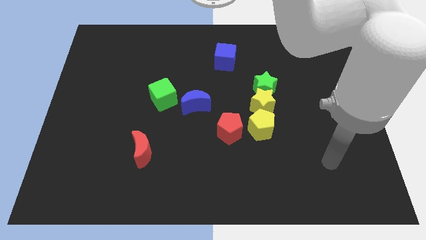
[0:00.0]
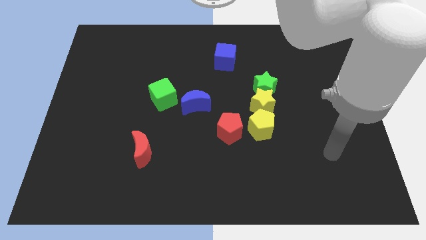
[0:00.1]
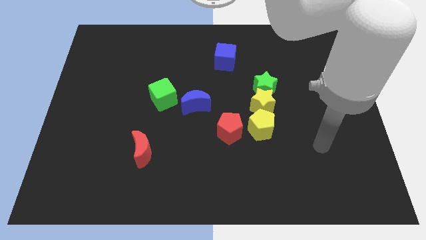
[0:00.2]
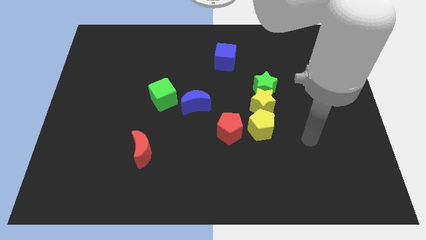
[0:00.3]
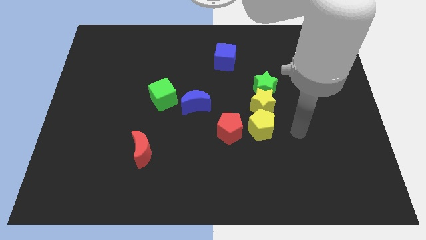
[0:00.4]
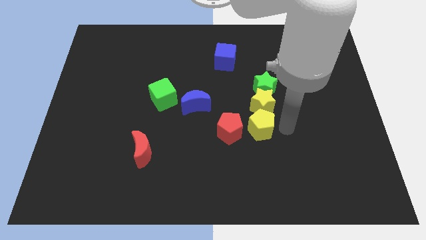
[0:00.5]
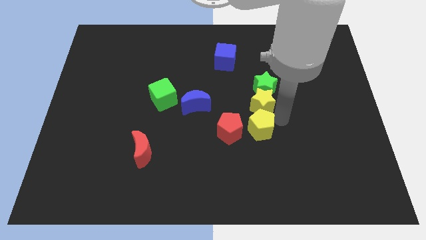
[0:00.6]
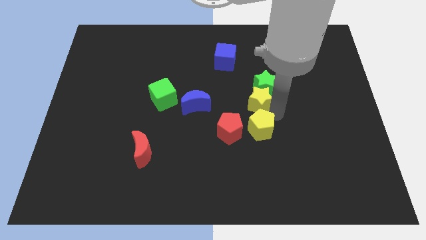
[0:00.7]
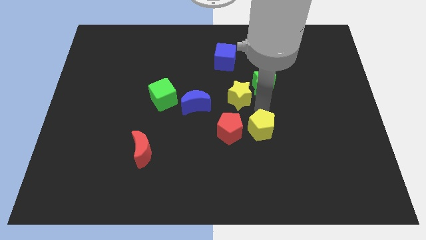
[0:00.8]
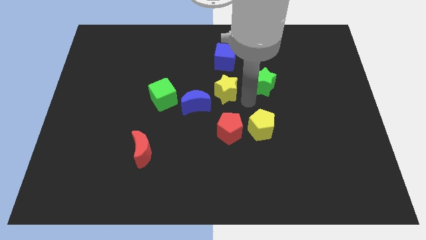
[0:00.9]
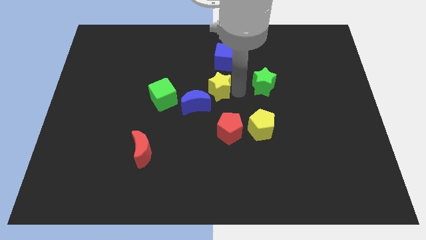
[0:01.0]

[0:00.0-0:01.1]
pull the green star apart from the yellow star

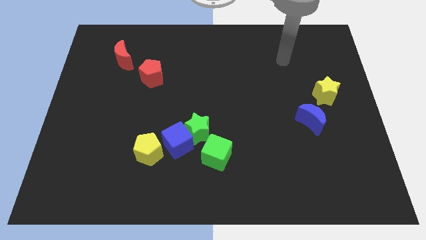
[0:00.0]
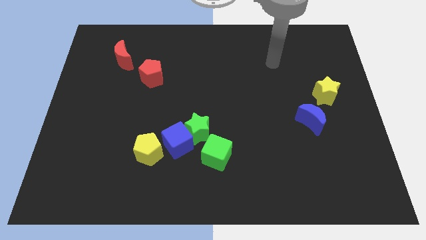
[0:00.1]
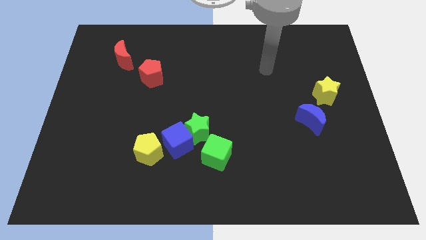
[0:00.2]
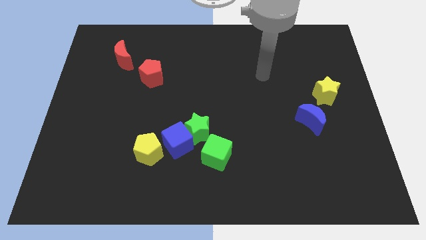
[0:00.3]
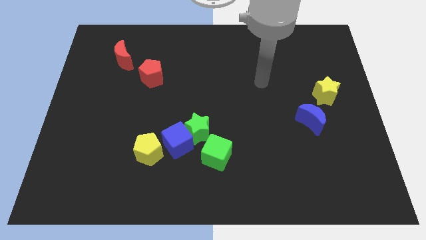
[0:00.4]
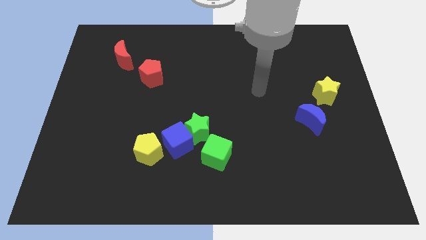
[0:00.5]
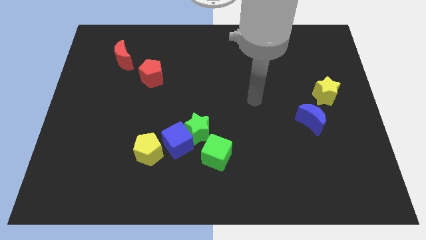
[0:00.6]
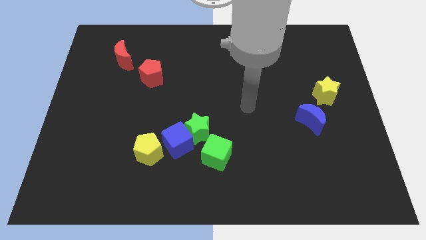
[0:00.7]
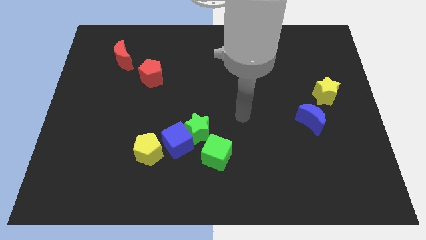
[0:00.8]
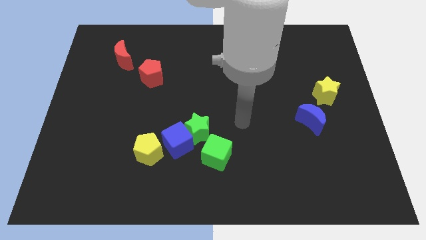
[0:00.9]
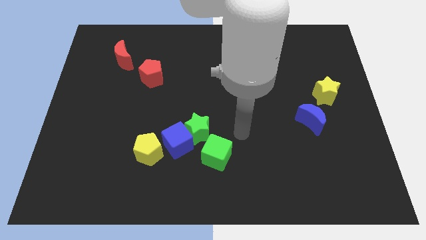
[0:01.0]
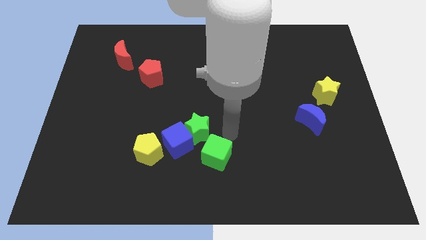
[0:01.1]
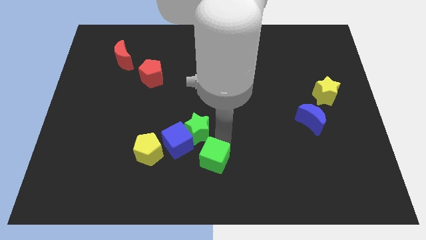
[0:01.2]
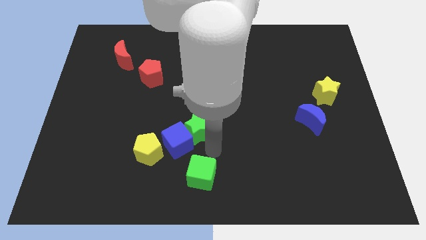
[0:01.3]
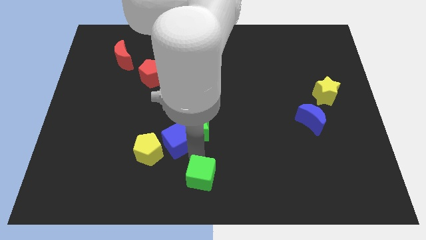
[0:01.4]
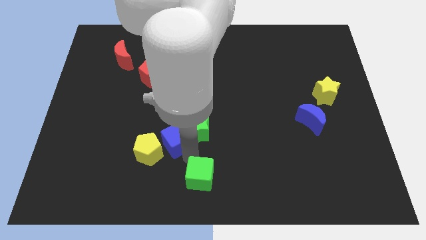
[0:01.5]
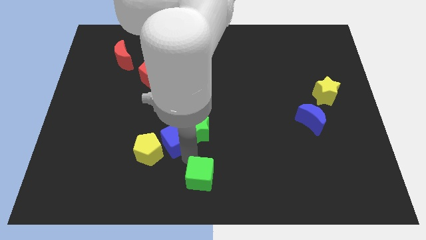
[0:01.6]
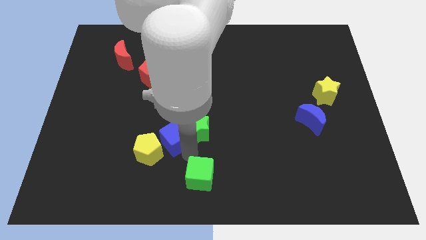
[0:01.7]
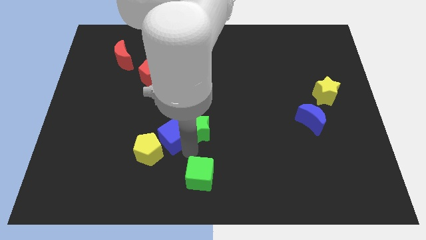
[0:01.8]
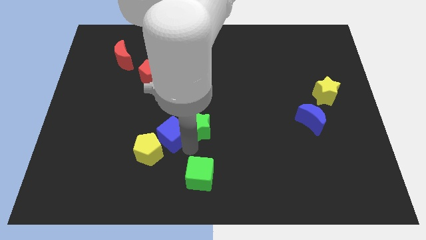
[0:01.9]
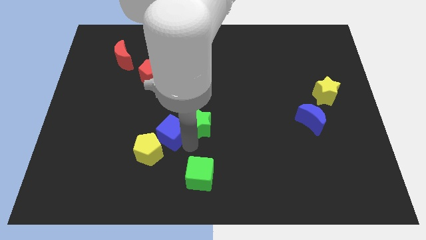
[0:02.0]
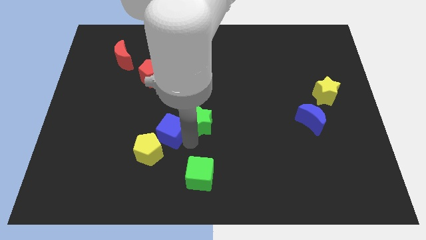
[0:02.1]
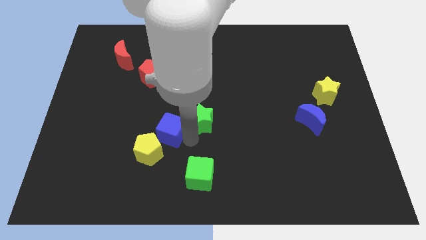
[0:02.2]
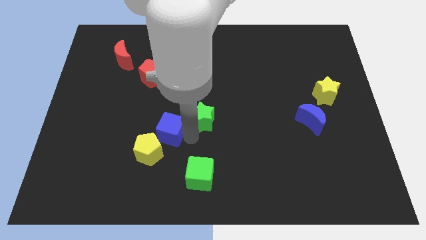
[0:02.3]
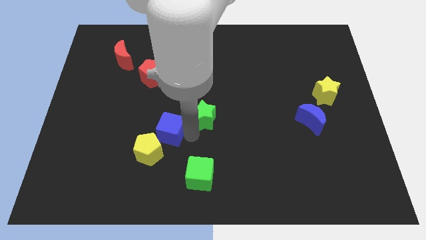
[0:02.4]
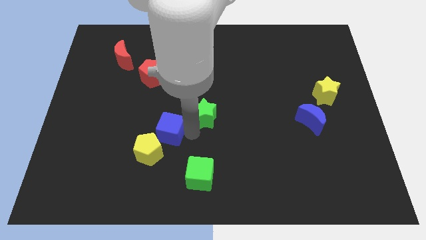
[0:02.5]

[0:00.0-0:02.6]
separate the green star from the blue cube and green cube

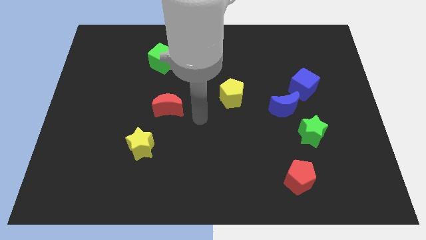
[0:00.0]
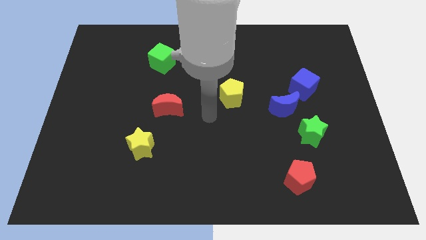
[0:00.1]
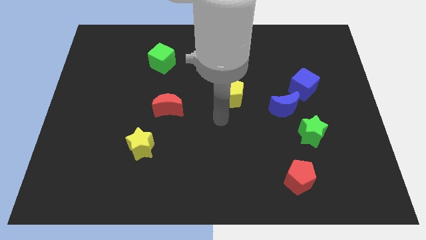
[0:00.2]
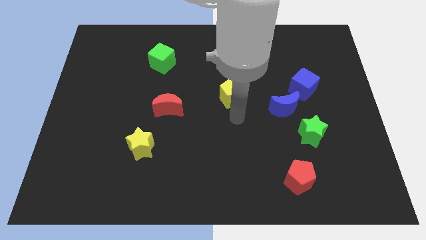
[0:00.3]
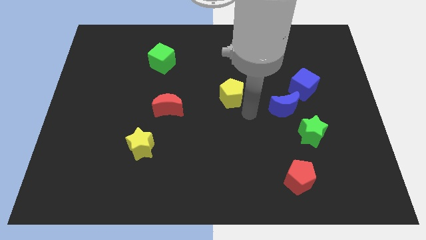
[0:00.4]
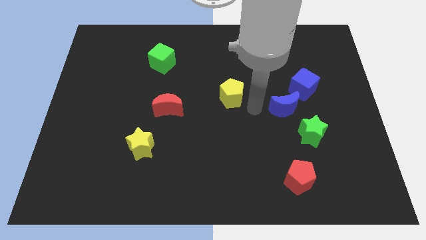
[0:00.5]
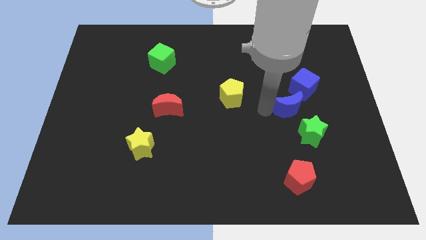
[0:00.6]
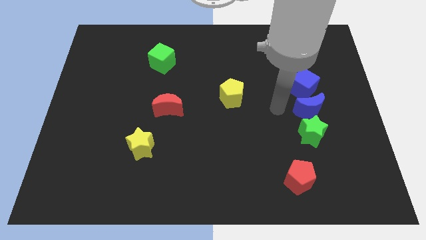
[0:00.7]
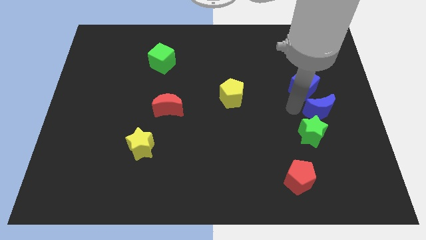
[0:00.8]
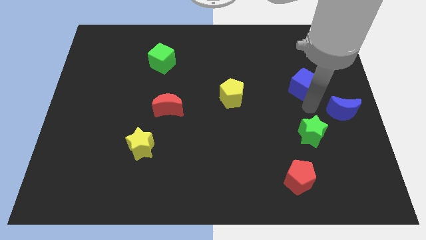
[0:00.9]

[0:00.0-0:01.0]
separate the blue cube from the blue moon

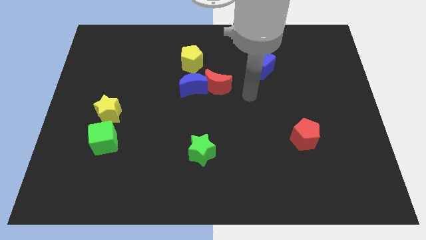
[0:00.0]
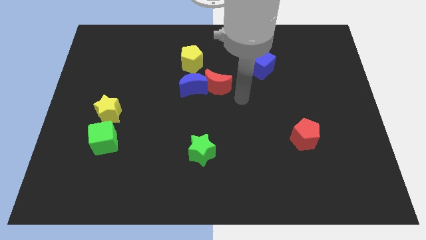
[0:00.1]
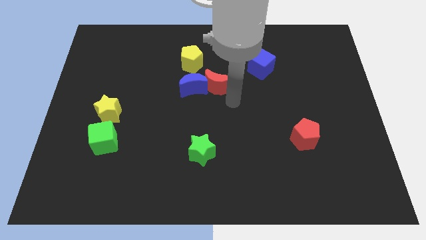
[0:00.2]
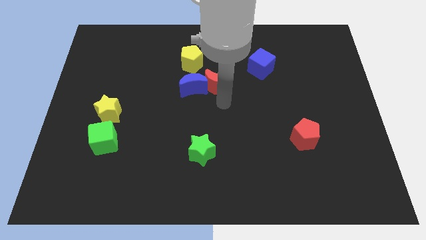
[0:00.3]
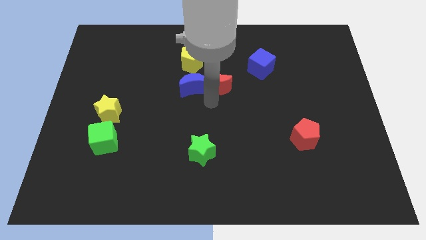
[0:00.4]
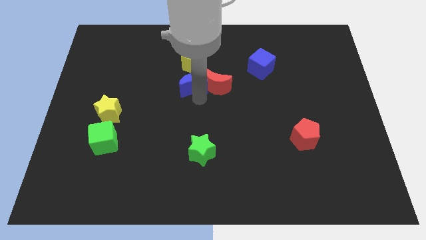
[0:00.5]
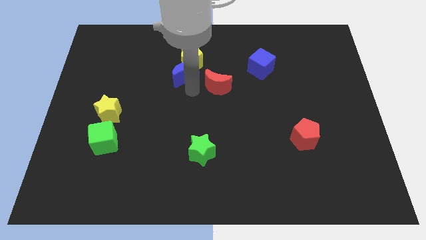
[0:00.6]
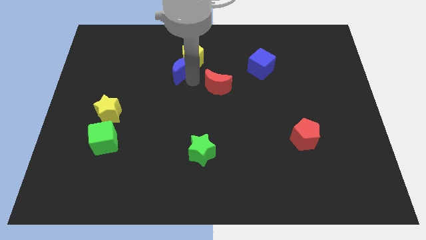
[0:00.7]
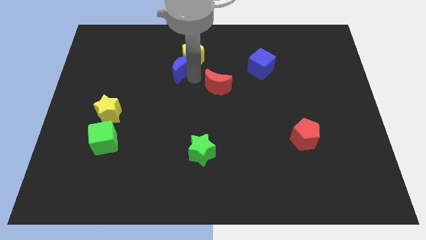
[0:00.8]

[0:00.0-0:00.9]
pull the red moon apart from the blue moon

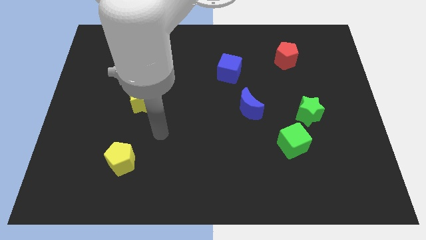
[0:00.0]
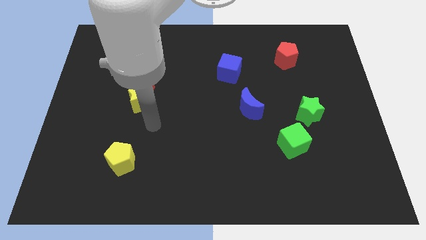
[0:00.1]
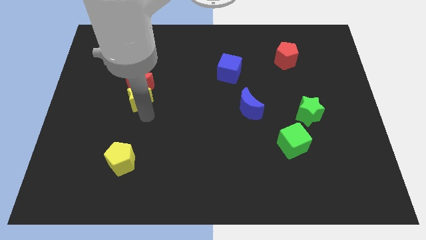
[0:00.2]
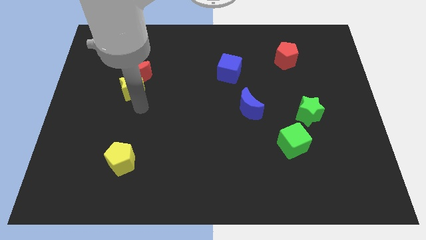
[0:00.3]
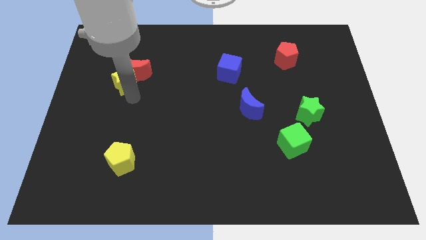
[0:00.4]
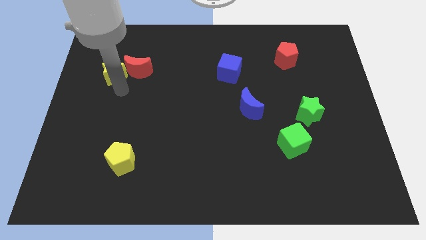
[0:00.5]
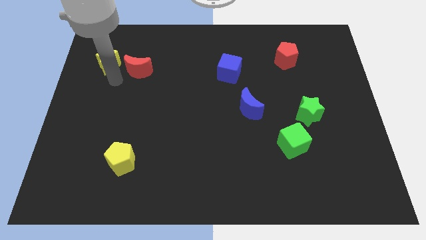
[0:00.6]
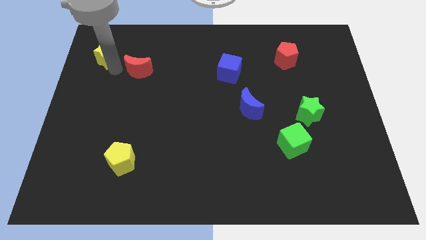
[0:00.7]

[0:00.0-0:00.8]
pull the red moon apart from the yellow star

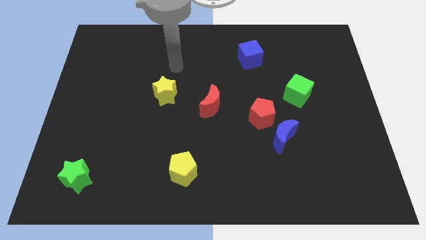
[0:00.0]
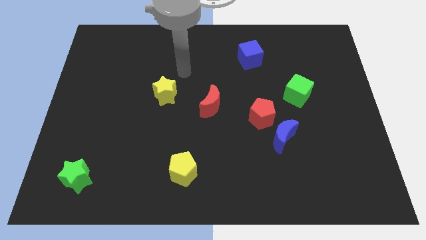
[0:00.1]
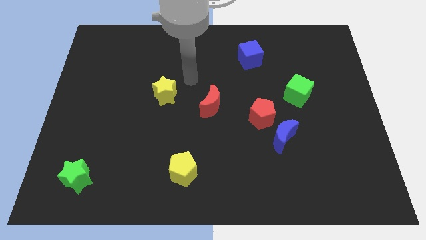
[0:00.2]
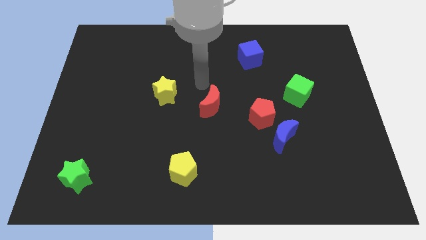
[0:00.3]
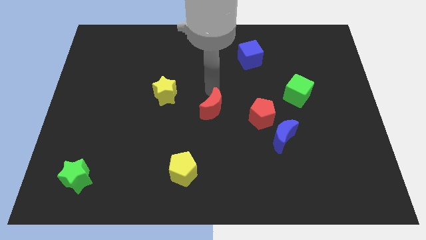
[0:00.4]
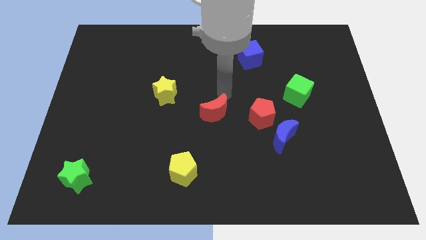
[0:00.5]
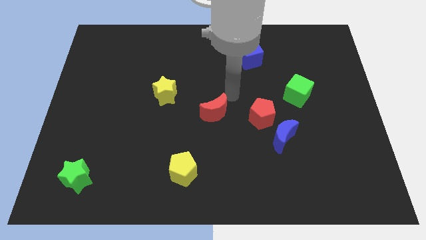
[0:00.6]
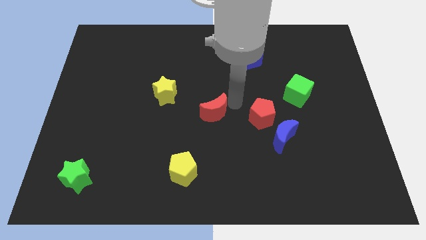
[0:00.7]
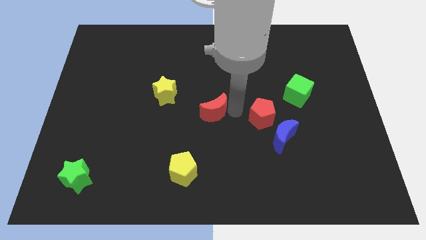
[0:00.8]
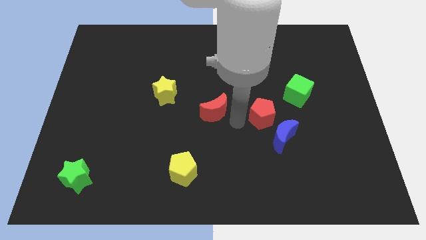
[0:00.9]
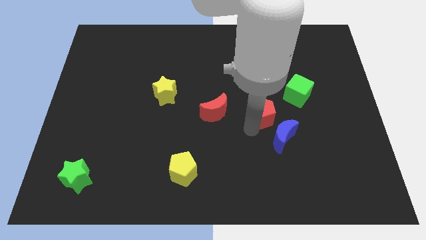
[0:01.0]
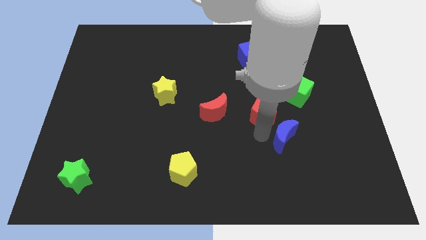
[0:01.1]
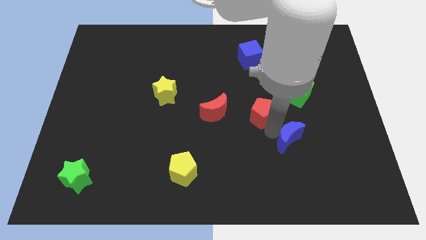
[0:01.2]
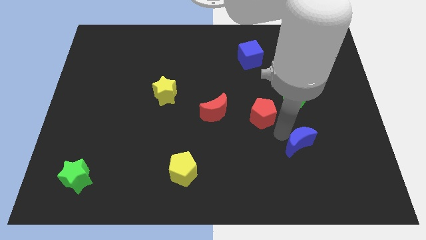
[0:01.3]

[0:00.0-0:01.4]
pull the red pentagon apart from the blue moon

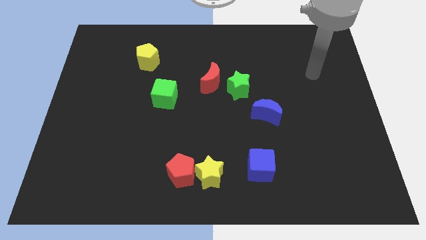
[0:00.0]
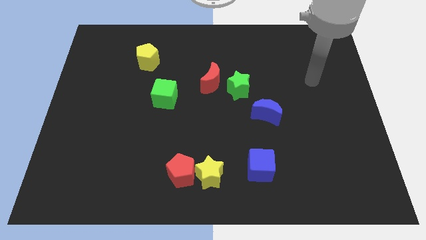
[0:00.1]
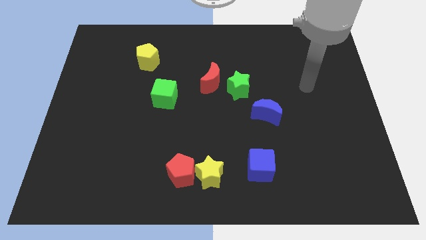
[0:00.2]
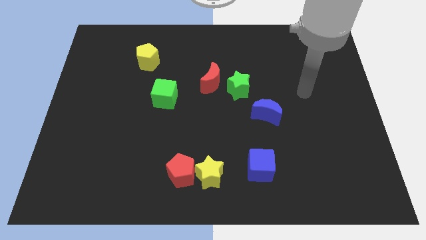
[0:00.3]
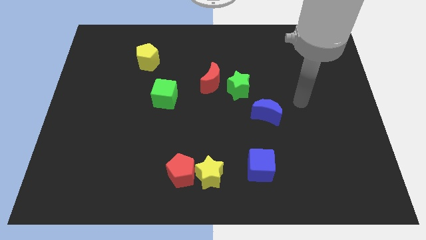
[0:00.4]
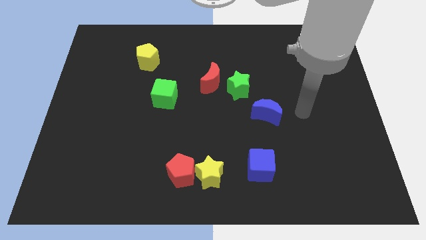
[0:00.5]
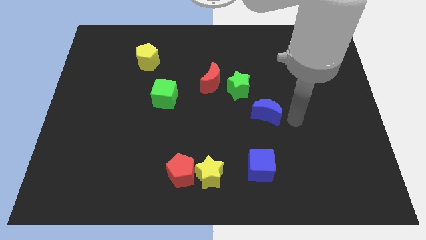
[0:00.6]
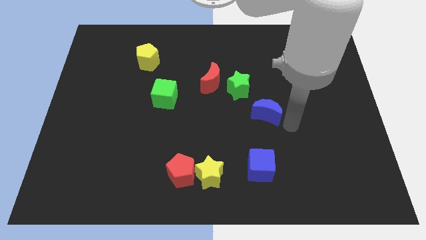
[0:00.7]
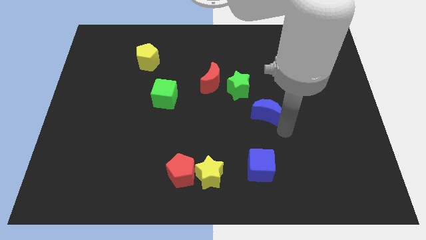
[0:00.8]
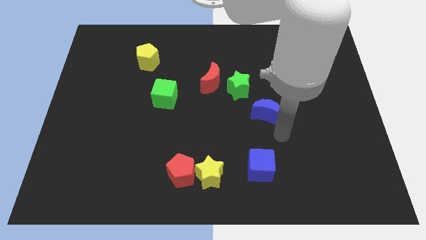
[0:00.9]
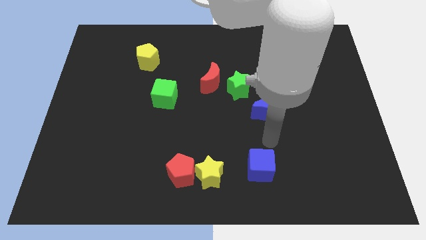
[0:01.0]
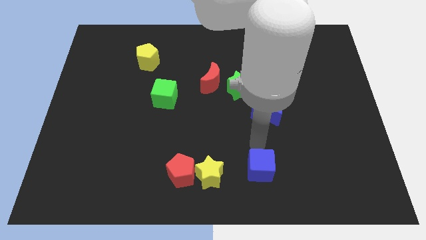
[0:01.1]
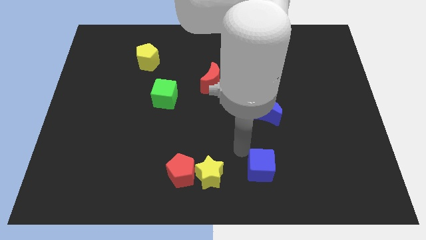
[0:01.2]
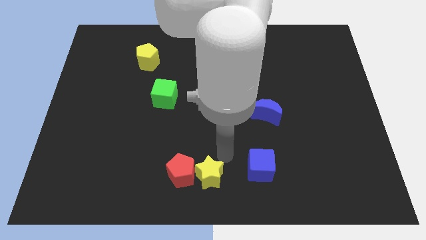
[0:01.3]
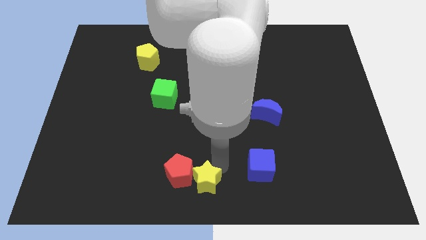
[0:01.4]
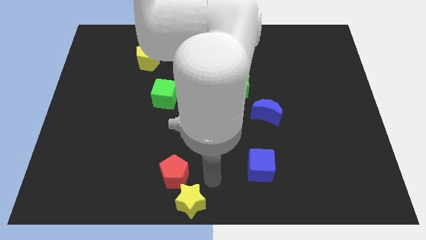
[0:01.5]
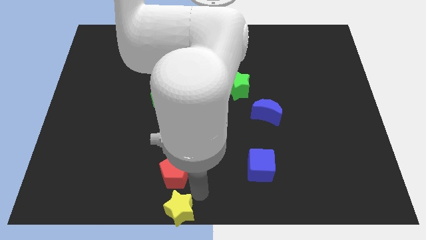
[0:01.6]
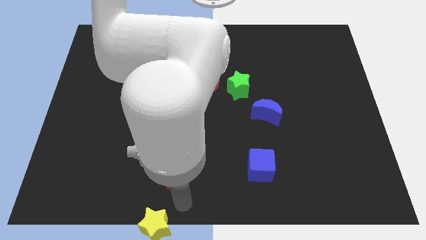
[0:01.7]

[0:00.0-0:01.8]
separate the red pentagon from the yellow star
